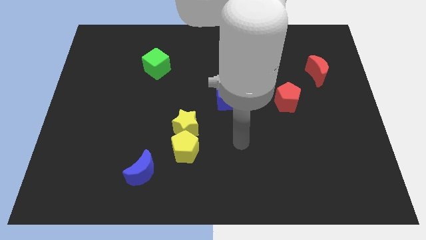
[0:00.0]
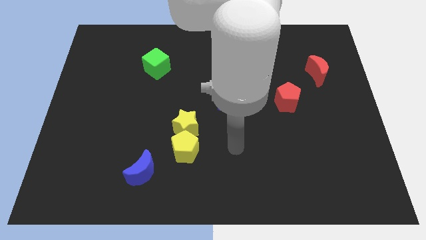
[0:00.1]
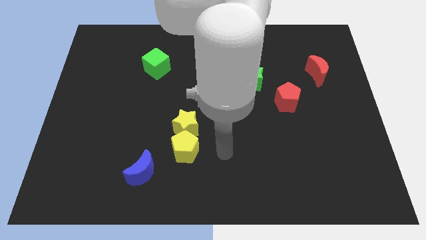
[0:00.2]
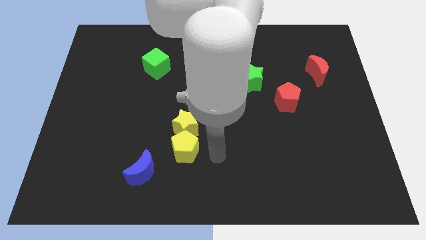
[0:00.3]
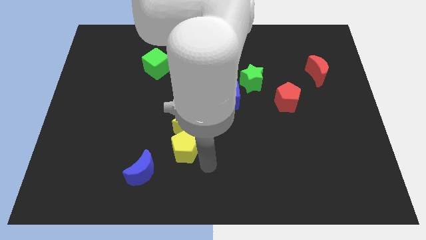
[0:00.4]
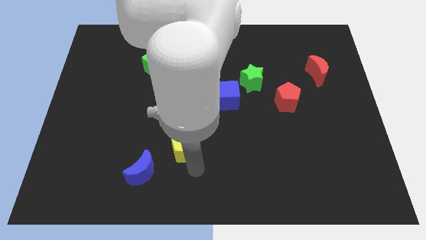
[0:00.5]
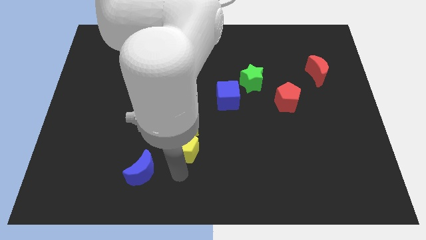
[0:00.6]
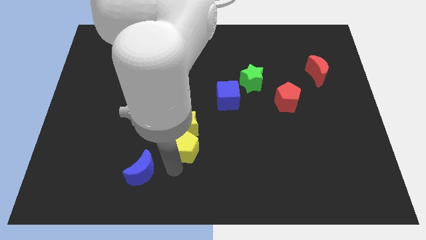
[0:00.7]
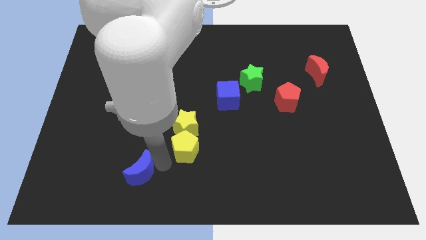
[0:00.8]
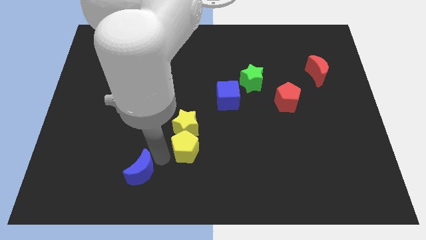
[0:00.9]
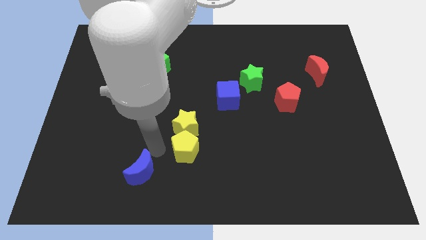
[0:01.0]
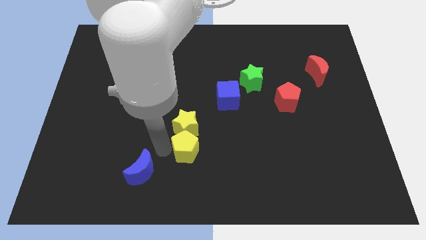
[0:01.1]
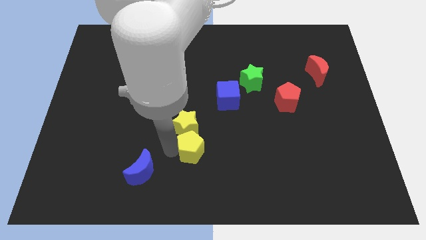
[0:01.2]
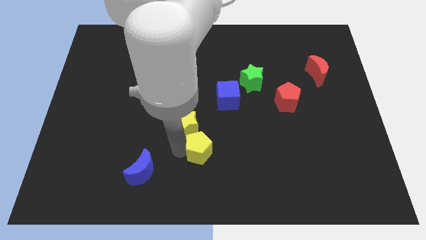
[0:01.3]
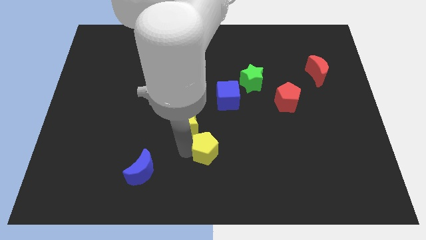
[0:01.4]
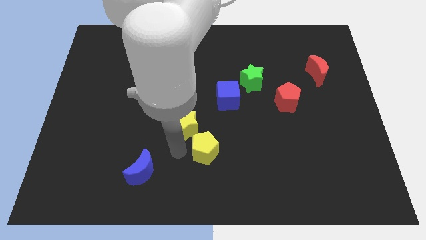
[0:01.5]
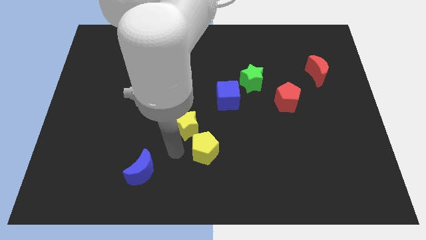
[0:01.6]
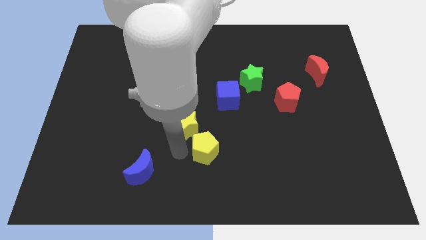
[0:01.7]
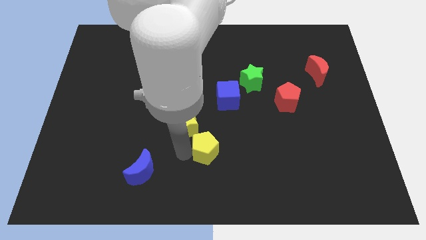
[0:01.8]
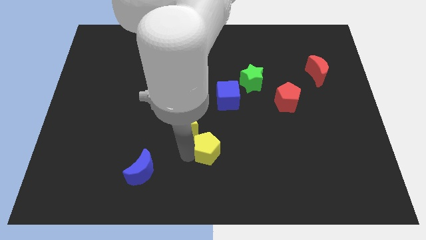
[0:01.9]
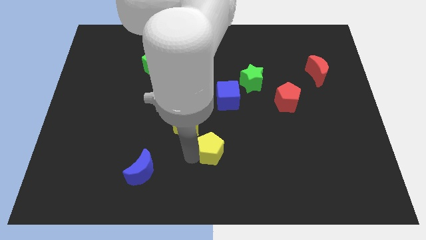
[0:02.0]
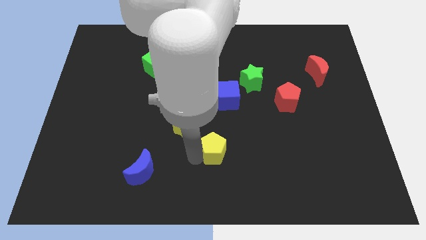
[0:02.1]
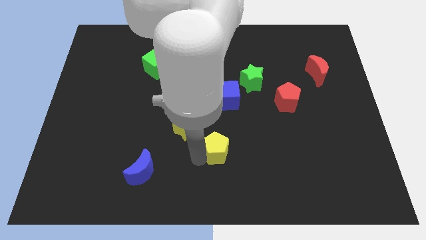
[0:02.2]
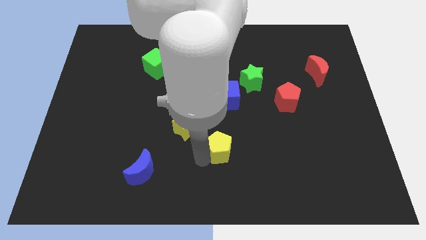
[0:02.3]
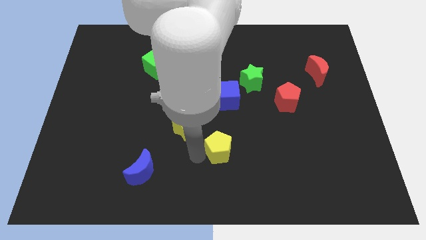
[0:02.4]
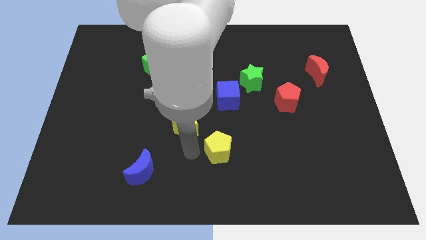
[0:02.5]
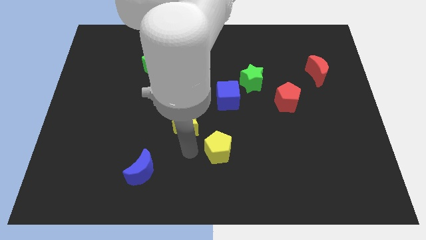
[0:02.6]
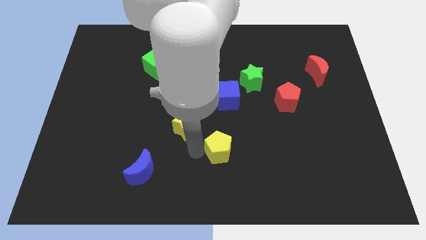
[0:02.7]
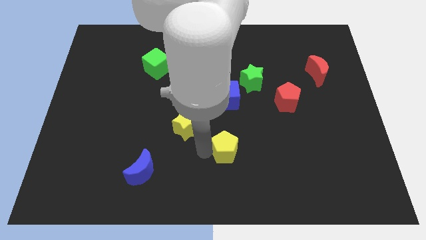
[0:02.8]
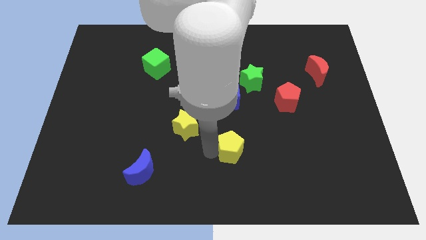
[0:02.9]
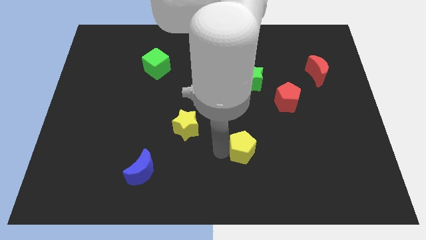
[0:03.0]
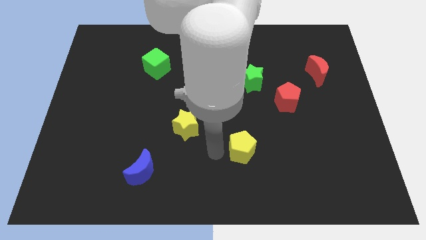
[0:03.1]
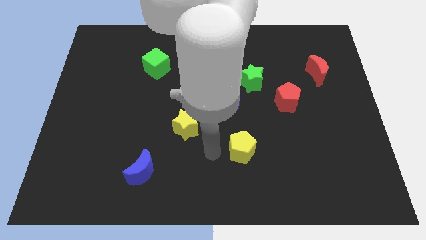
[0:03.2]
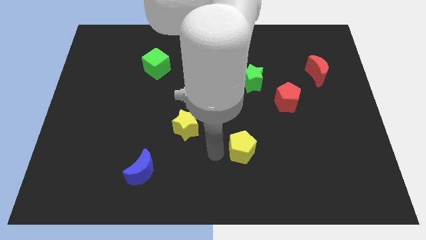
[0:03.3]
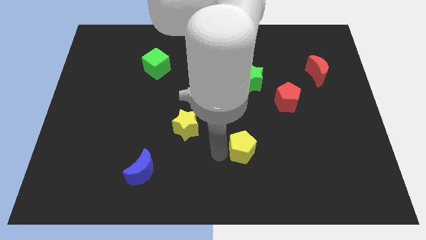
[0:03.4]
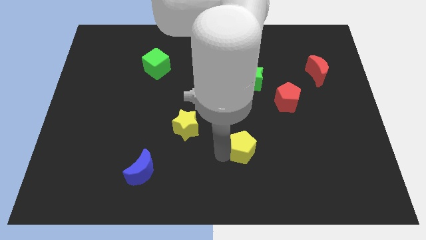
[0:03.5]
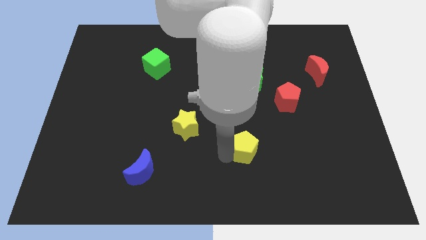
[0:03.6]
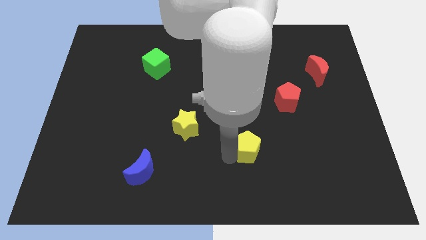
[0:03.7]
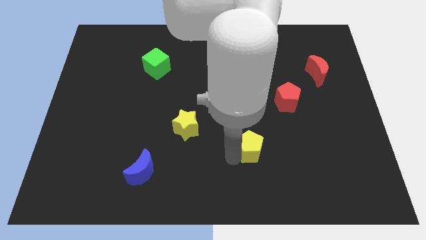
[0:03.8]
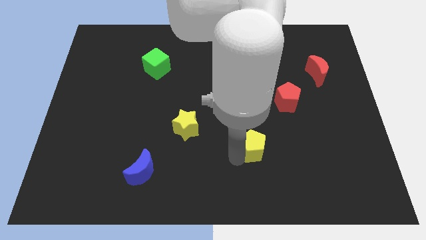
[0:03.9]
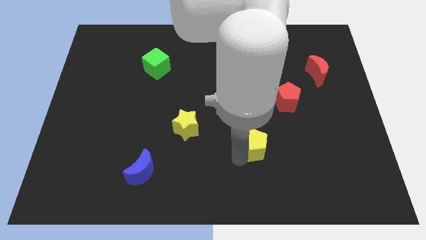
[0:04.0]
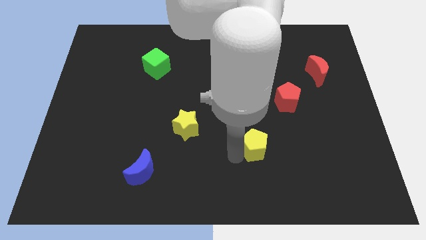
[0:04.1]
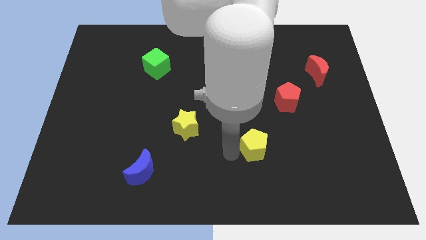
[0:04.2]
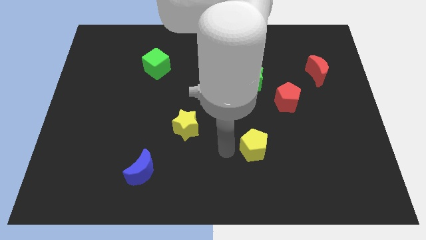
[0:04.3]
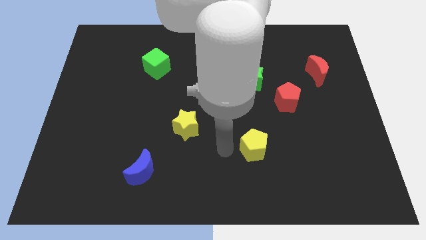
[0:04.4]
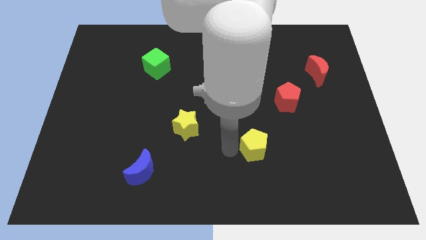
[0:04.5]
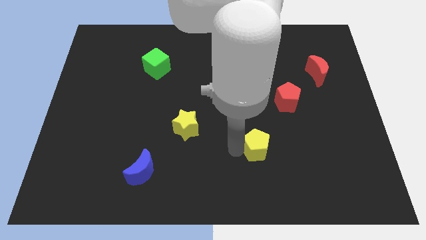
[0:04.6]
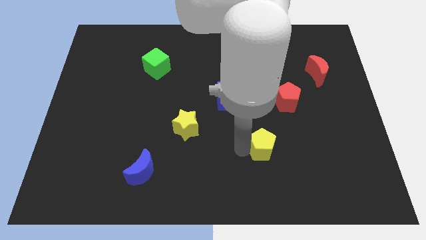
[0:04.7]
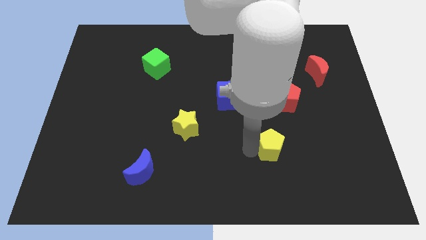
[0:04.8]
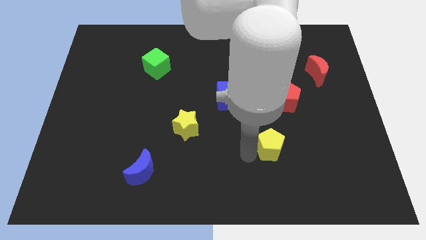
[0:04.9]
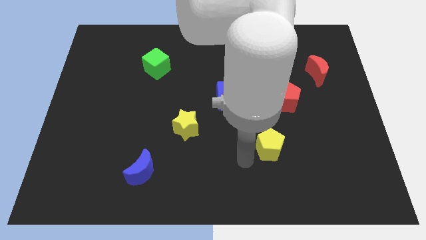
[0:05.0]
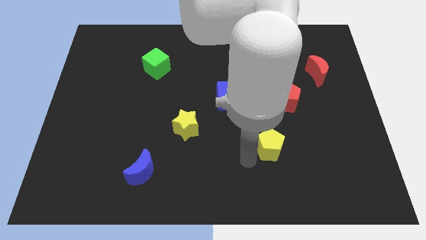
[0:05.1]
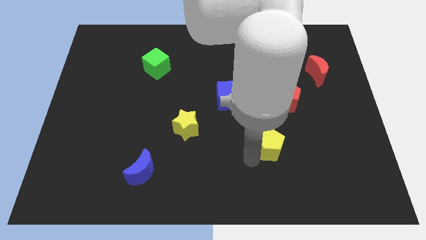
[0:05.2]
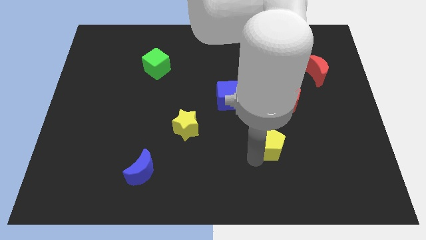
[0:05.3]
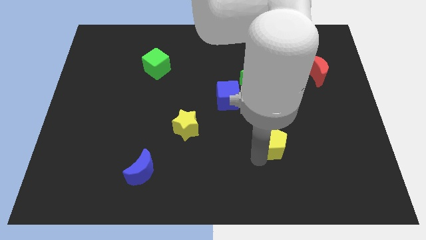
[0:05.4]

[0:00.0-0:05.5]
push the yellow pentagon to the bottom of the red pentagon
